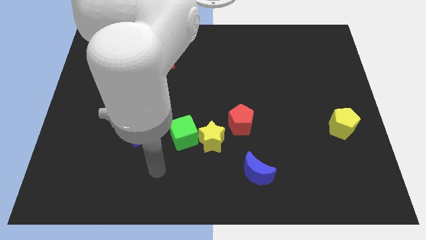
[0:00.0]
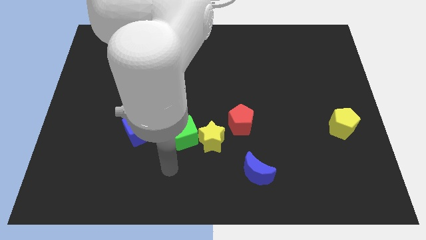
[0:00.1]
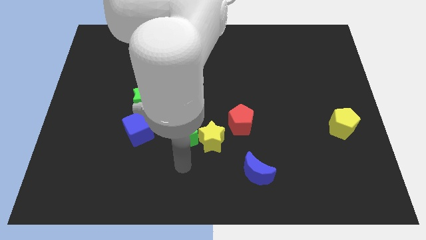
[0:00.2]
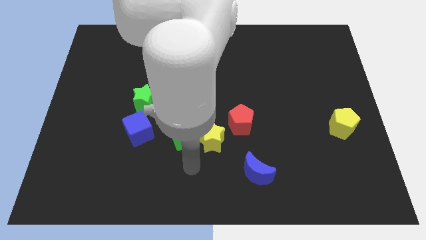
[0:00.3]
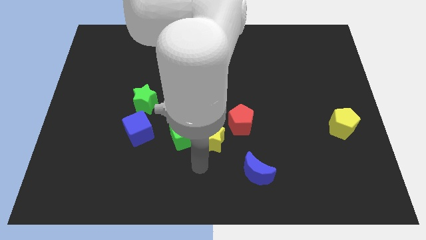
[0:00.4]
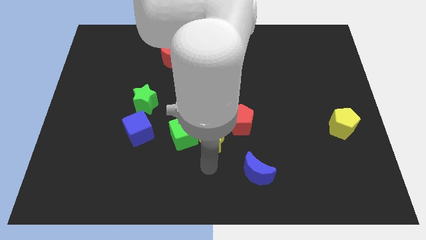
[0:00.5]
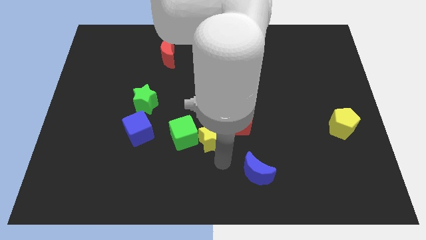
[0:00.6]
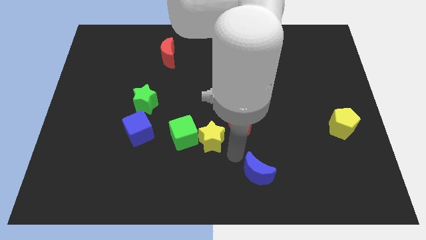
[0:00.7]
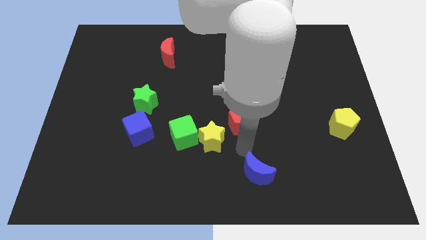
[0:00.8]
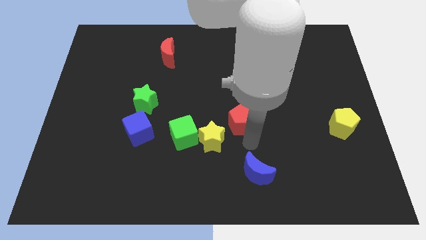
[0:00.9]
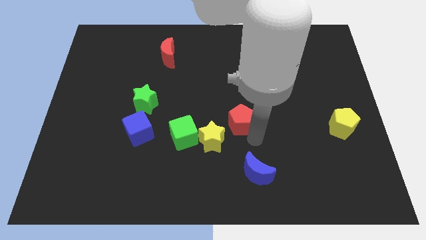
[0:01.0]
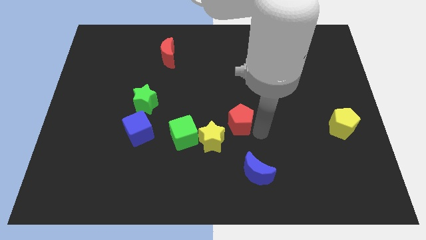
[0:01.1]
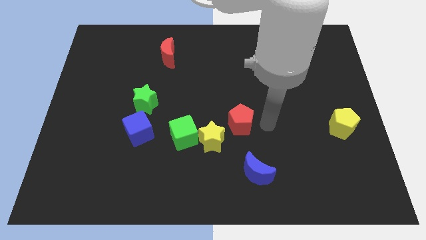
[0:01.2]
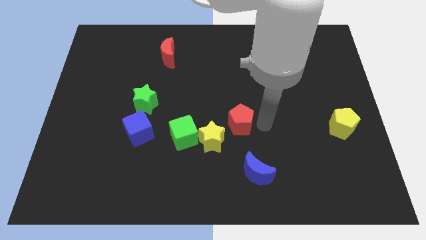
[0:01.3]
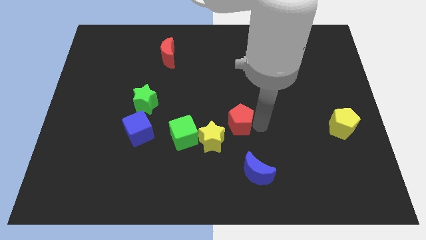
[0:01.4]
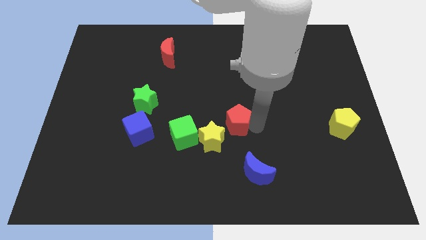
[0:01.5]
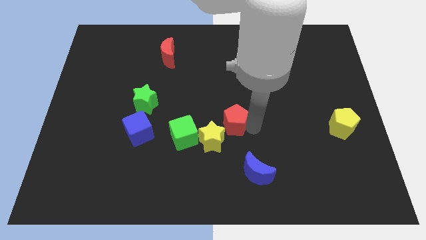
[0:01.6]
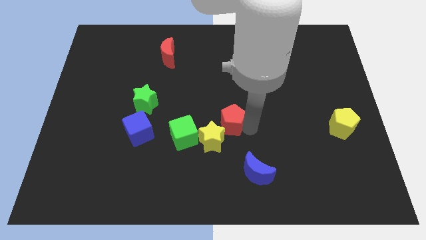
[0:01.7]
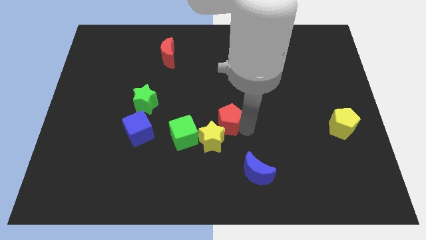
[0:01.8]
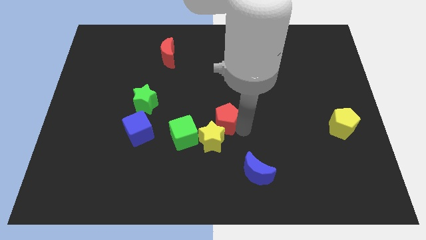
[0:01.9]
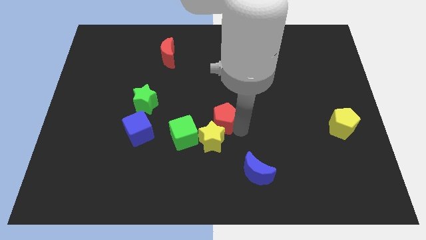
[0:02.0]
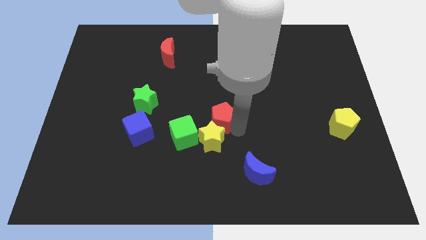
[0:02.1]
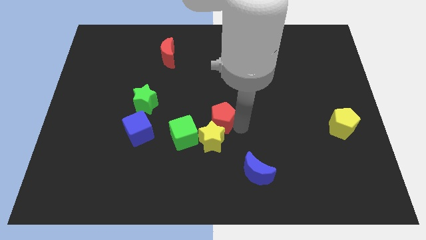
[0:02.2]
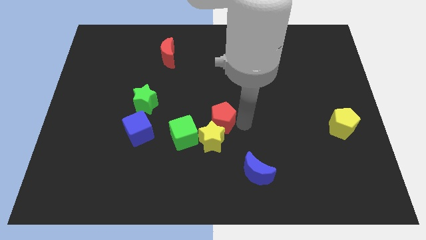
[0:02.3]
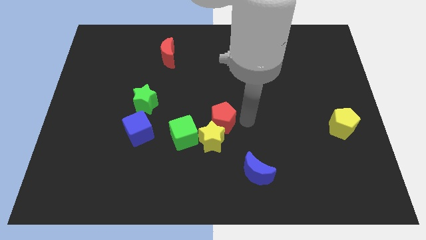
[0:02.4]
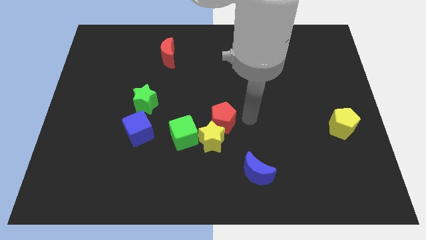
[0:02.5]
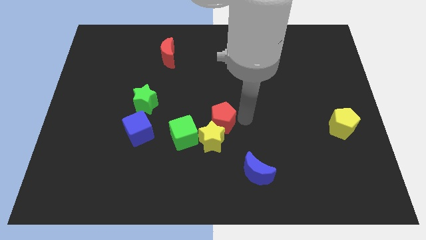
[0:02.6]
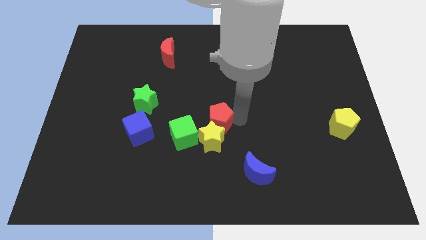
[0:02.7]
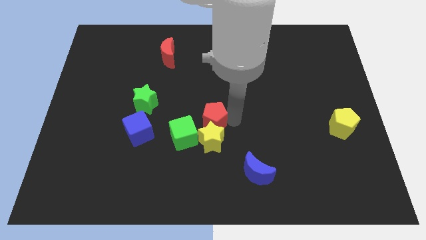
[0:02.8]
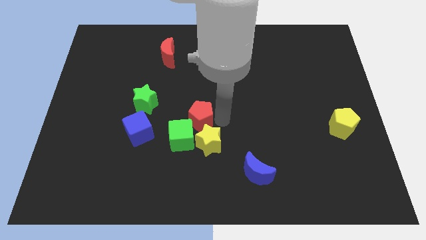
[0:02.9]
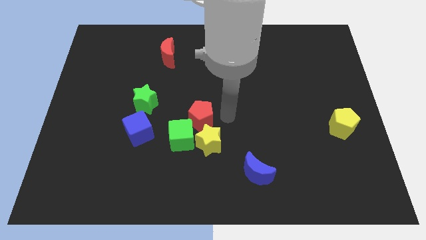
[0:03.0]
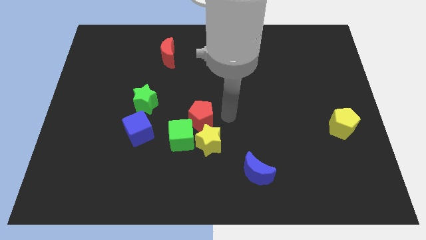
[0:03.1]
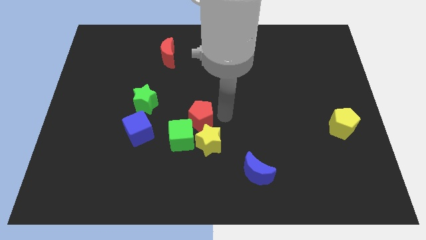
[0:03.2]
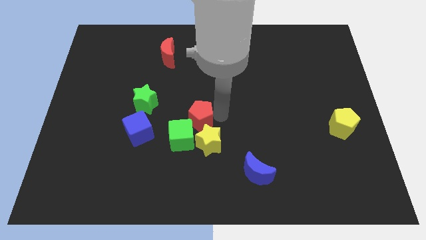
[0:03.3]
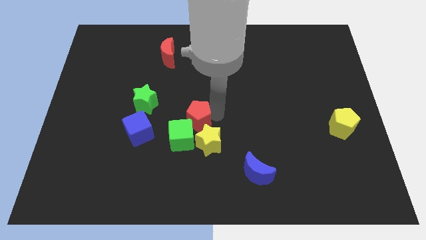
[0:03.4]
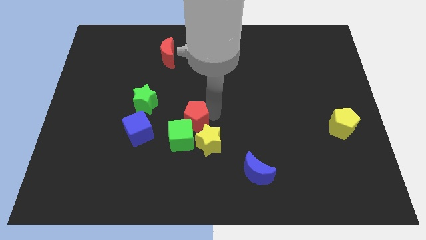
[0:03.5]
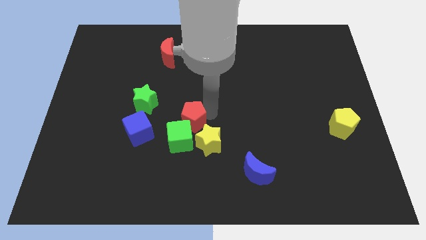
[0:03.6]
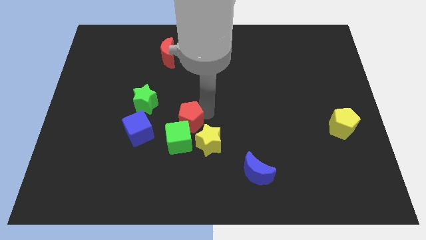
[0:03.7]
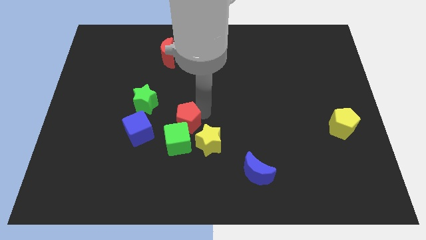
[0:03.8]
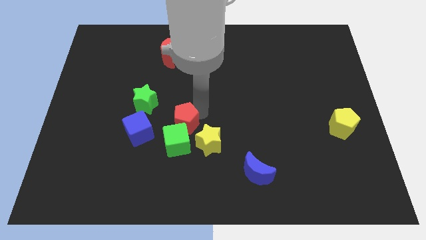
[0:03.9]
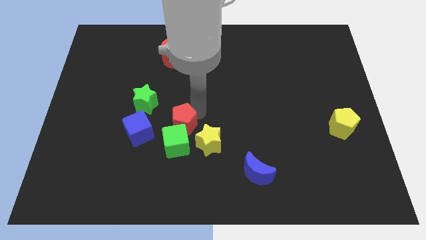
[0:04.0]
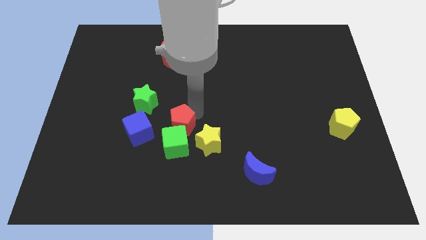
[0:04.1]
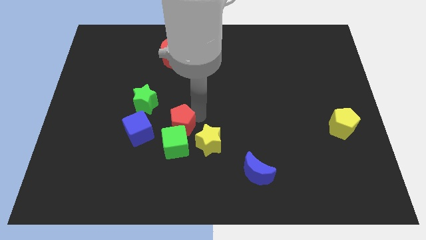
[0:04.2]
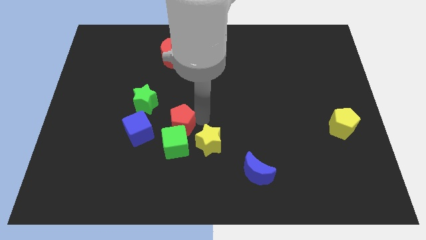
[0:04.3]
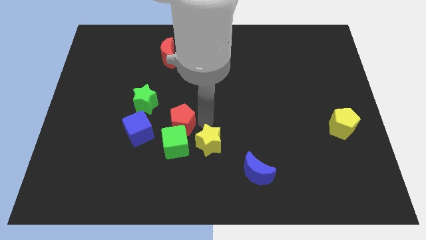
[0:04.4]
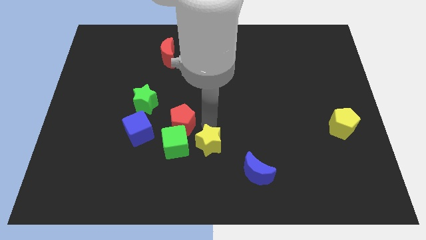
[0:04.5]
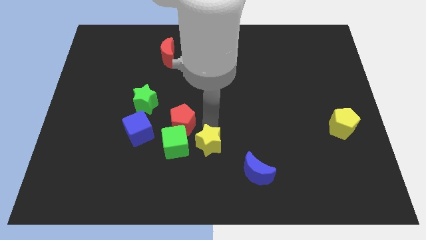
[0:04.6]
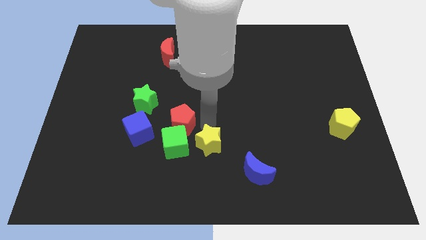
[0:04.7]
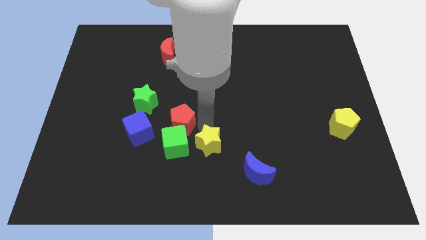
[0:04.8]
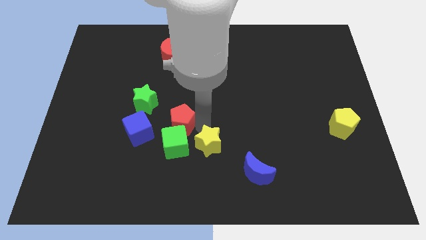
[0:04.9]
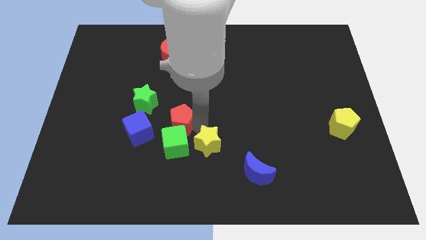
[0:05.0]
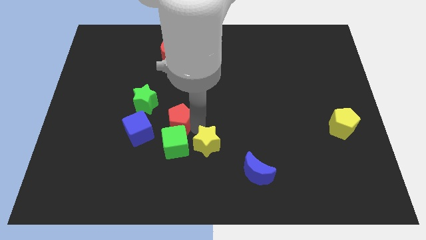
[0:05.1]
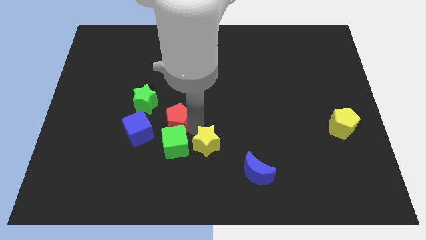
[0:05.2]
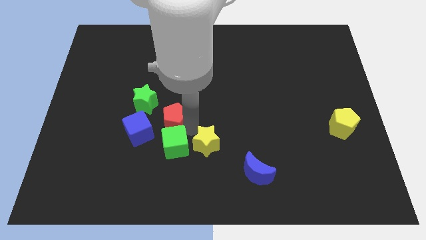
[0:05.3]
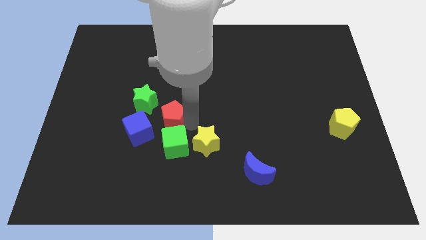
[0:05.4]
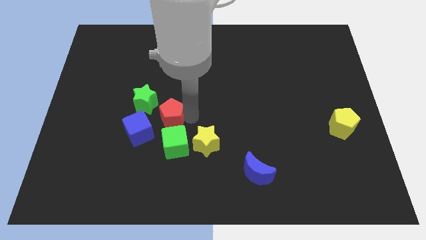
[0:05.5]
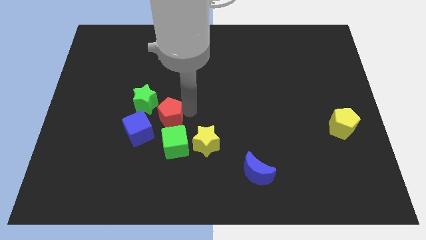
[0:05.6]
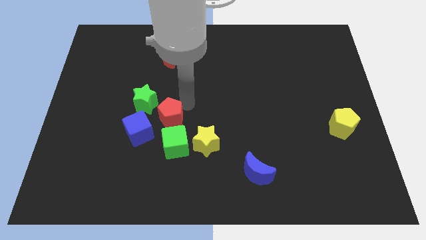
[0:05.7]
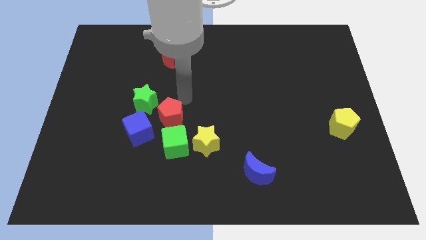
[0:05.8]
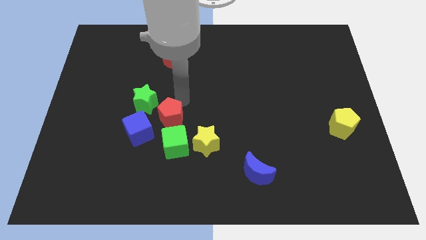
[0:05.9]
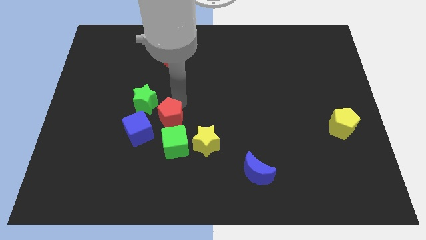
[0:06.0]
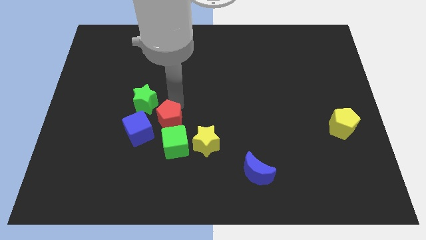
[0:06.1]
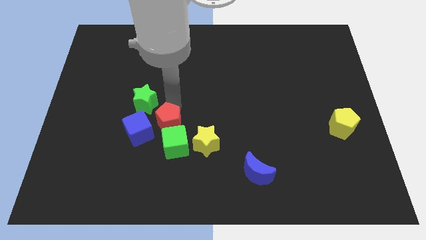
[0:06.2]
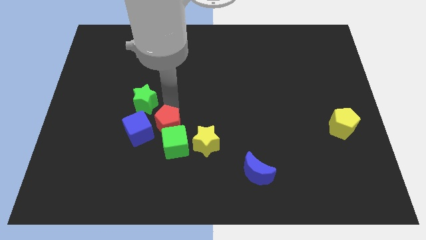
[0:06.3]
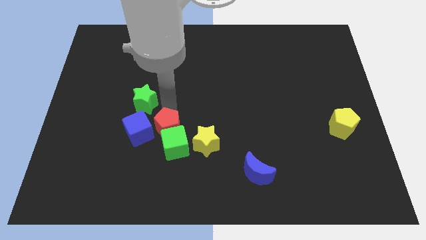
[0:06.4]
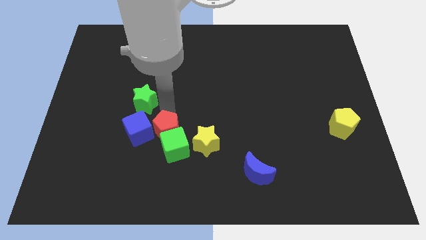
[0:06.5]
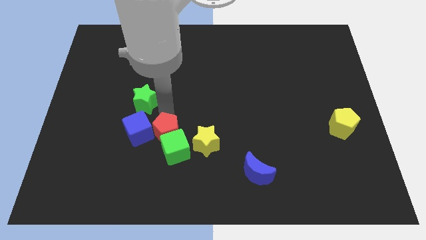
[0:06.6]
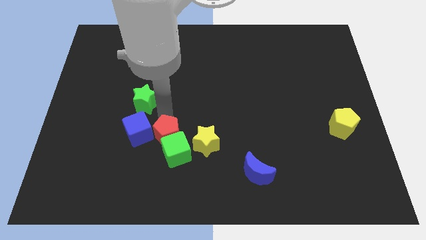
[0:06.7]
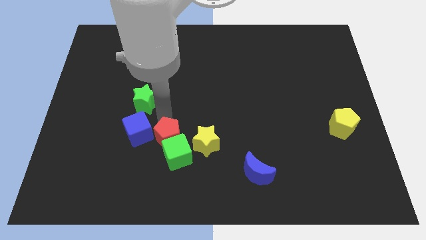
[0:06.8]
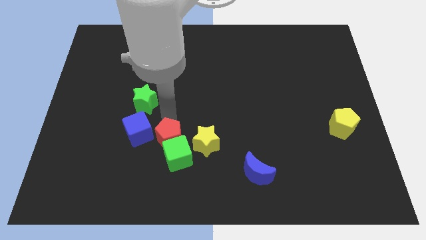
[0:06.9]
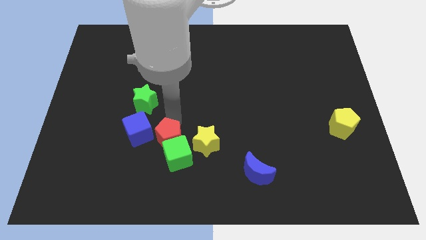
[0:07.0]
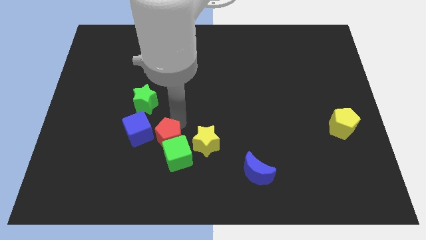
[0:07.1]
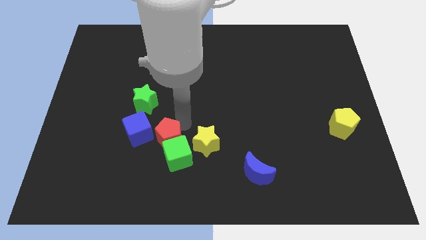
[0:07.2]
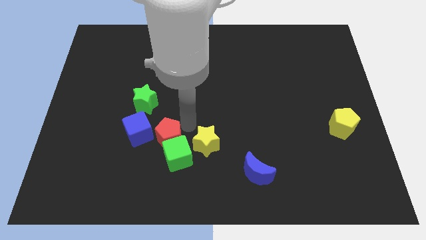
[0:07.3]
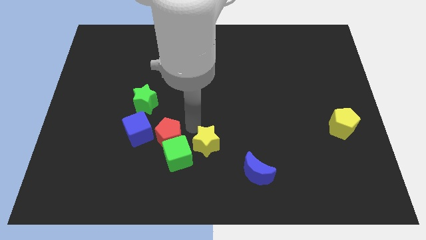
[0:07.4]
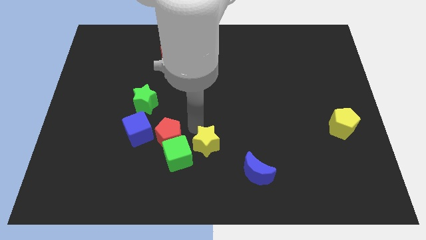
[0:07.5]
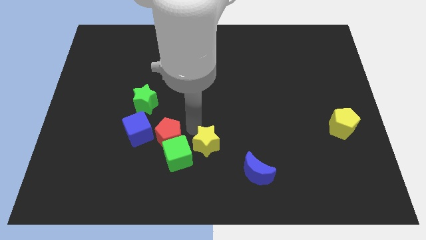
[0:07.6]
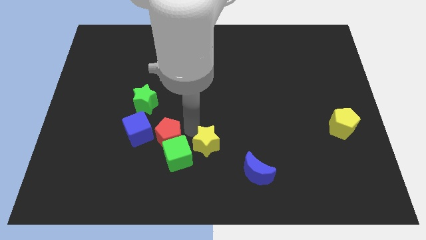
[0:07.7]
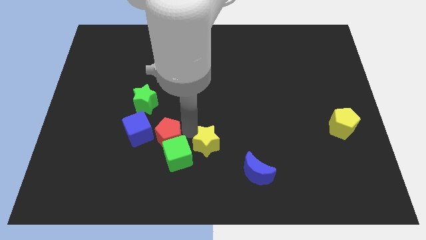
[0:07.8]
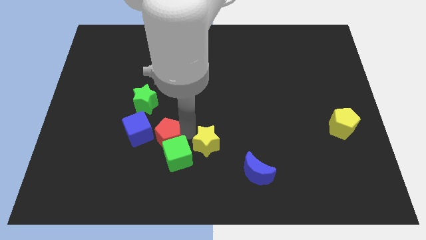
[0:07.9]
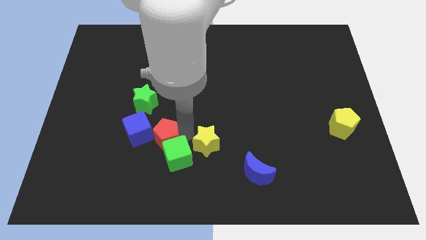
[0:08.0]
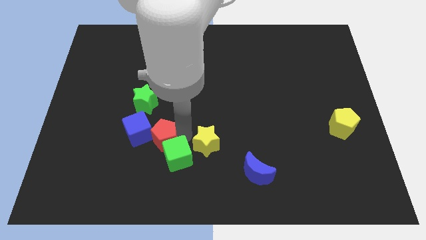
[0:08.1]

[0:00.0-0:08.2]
move the red pentagon to the left of the green cube
